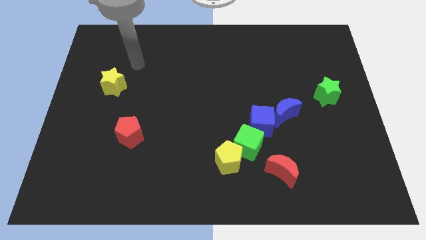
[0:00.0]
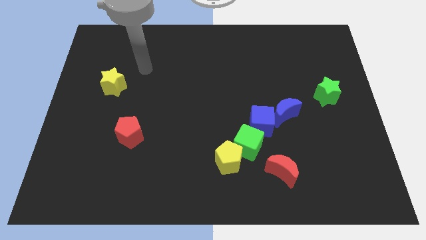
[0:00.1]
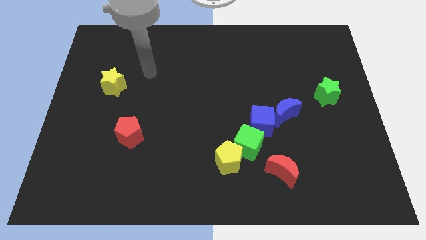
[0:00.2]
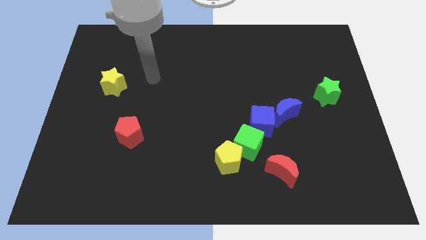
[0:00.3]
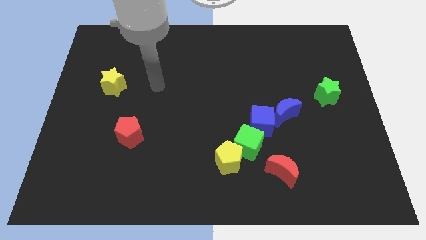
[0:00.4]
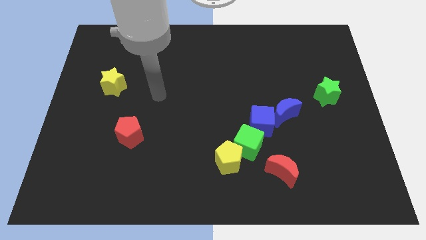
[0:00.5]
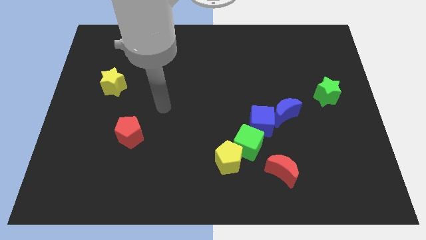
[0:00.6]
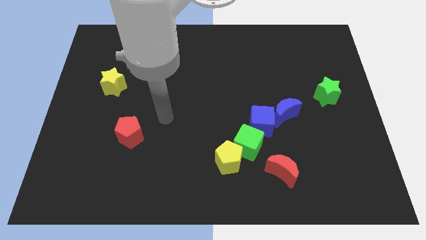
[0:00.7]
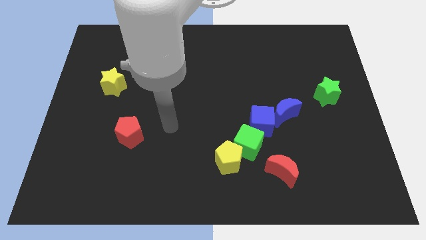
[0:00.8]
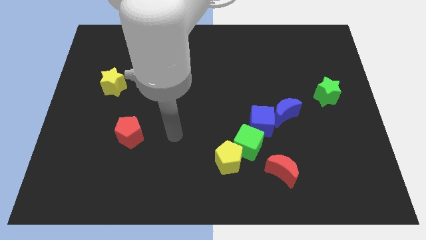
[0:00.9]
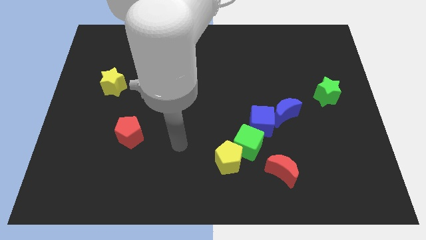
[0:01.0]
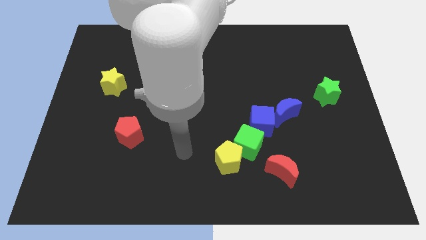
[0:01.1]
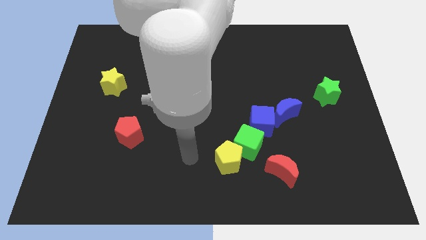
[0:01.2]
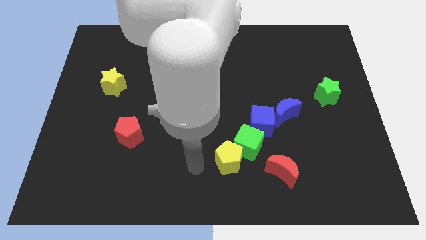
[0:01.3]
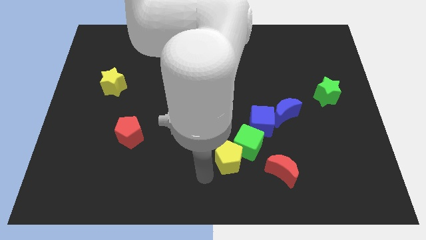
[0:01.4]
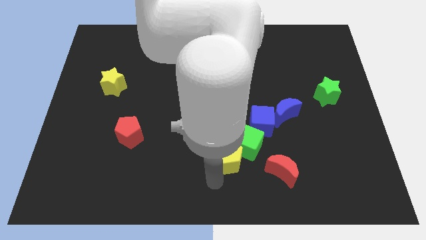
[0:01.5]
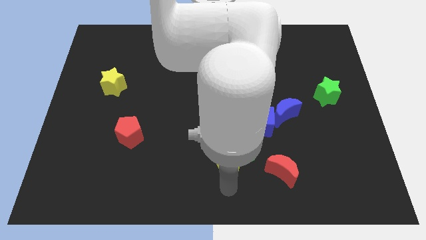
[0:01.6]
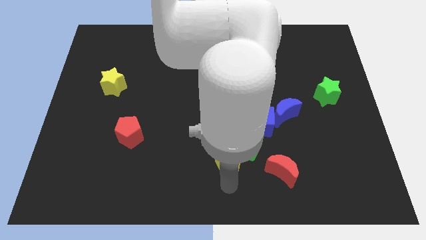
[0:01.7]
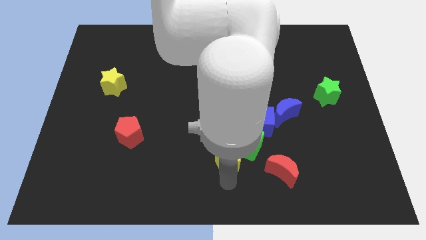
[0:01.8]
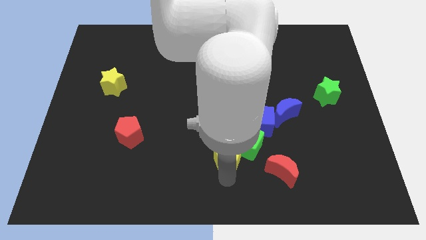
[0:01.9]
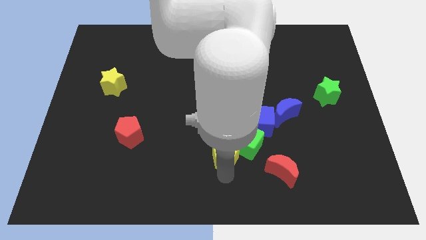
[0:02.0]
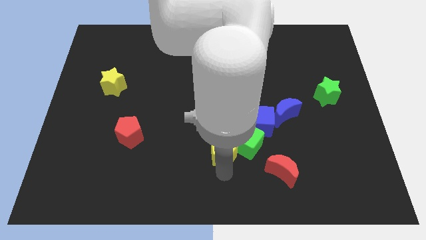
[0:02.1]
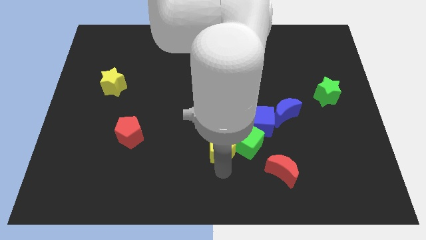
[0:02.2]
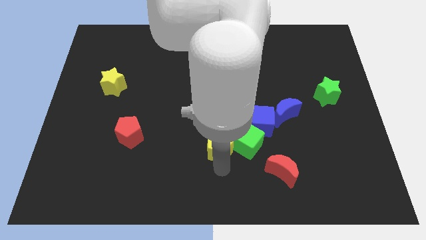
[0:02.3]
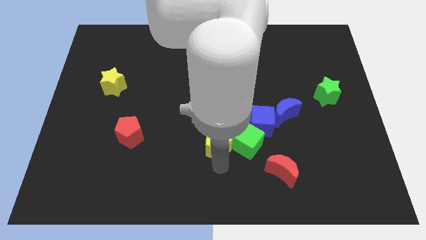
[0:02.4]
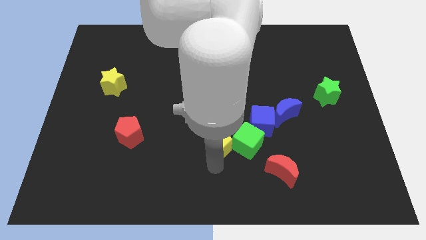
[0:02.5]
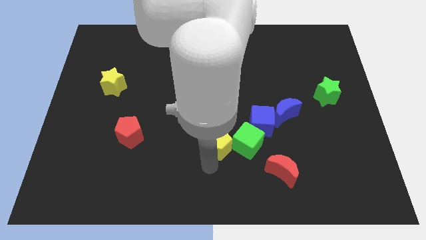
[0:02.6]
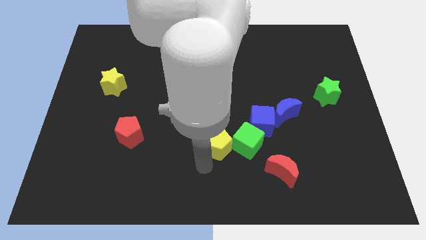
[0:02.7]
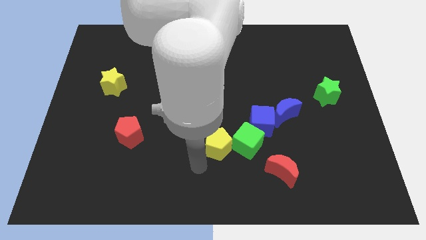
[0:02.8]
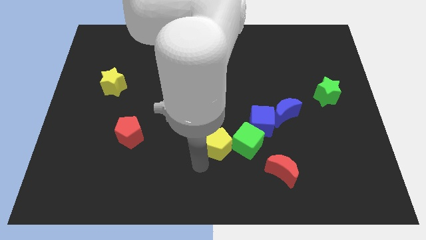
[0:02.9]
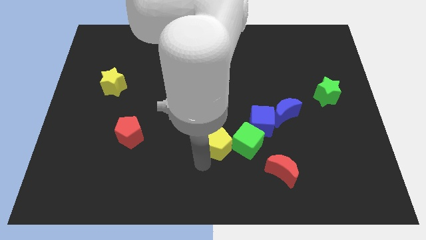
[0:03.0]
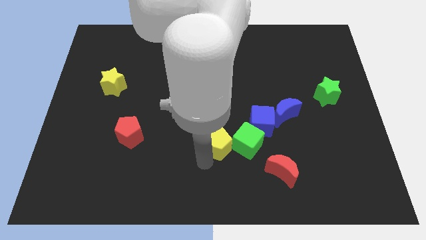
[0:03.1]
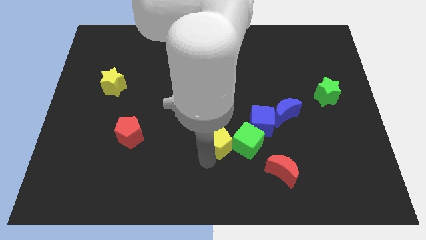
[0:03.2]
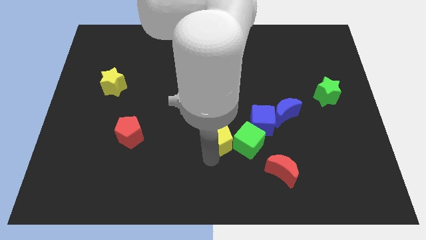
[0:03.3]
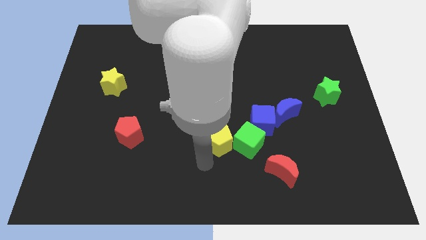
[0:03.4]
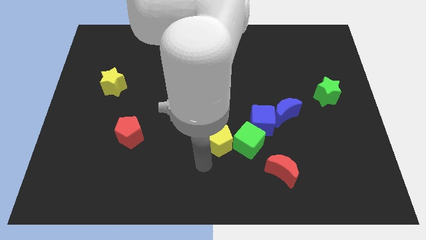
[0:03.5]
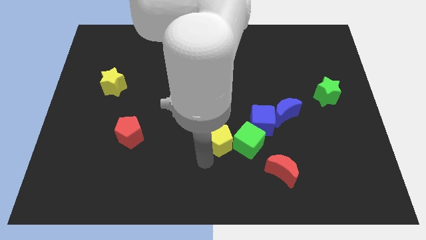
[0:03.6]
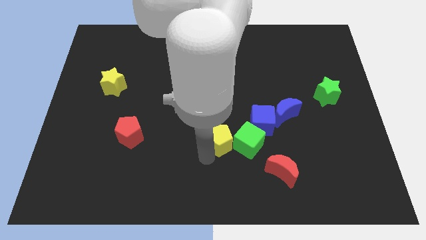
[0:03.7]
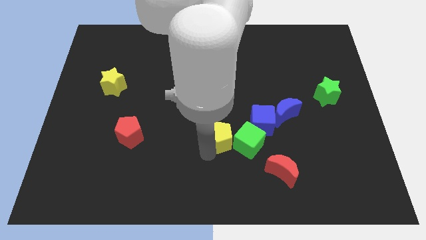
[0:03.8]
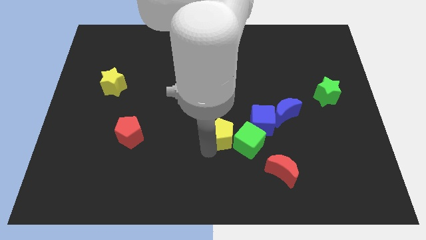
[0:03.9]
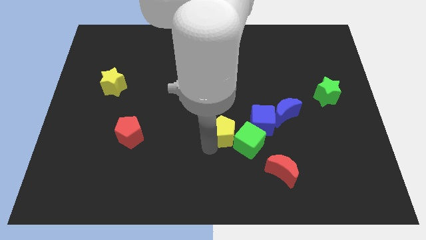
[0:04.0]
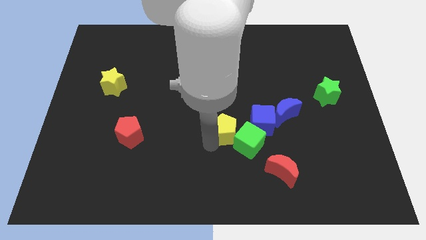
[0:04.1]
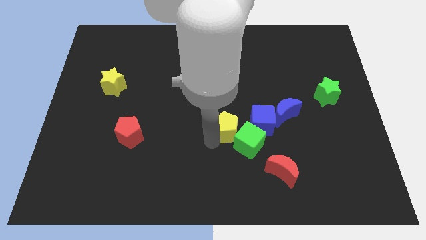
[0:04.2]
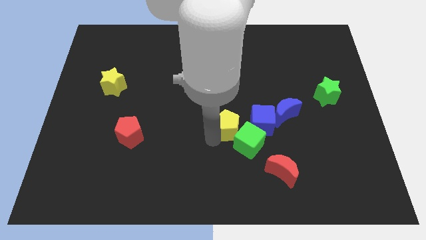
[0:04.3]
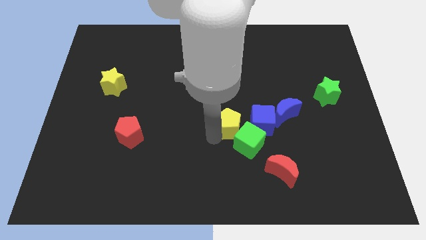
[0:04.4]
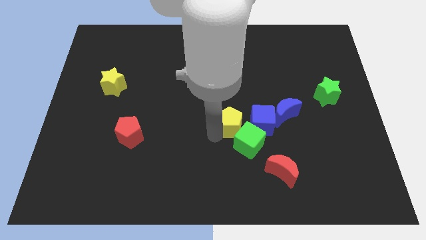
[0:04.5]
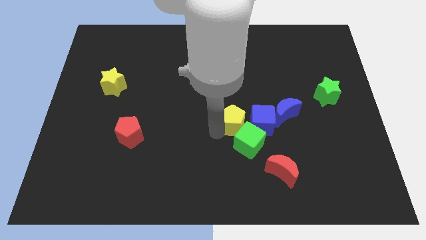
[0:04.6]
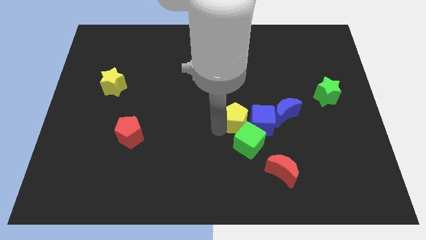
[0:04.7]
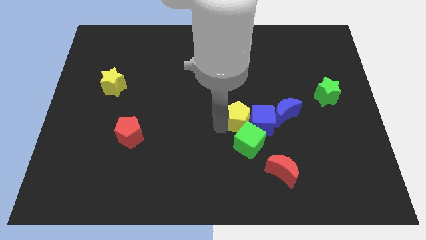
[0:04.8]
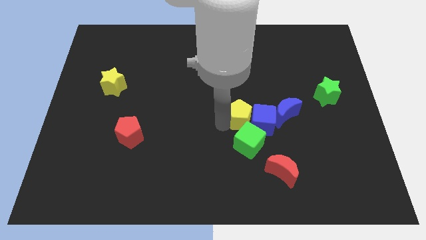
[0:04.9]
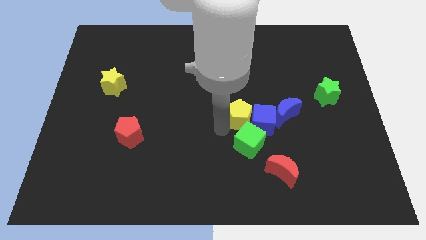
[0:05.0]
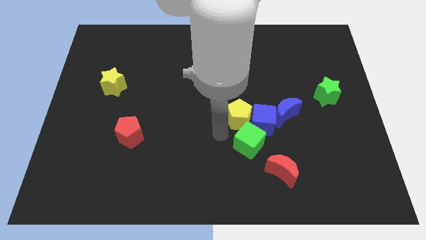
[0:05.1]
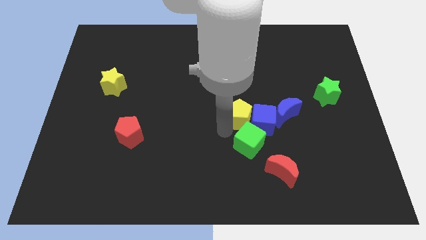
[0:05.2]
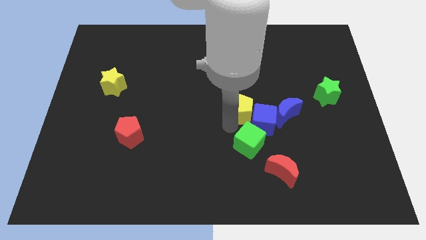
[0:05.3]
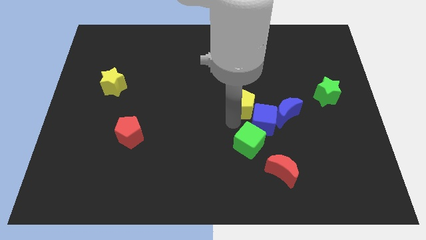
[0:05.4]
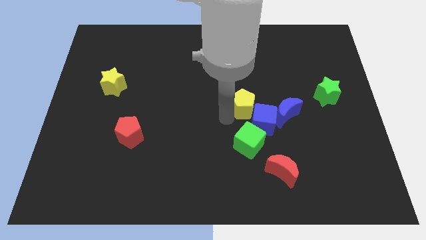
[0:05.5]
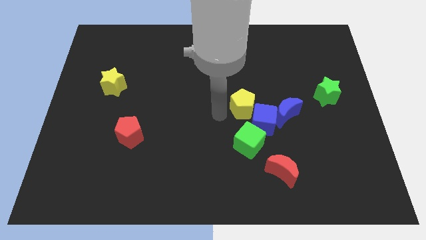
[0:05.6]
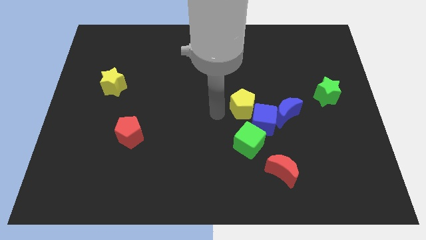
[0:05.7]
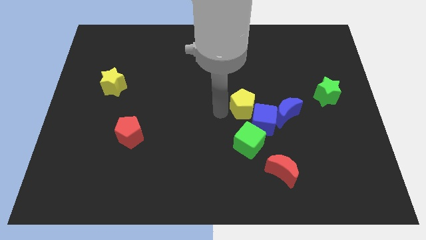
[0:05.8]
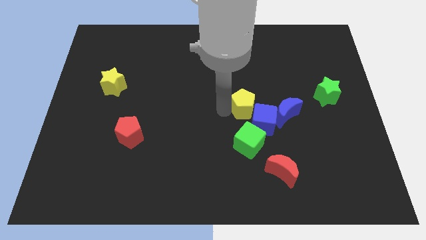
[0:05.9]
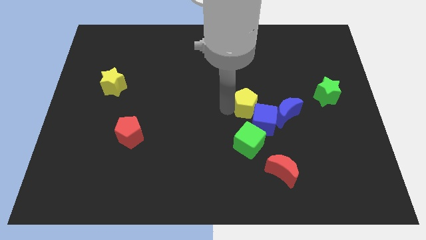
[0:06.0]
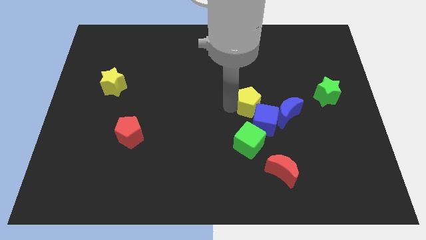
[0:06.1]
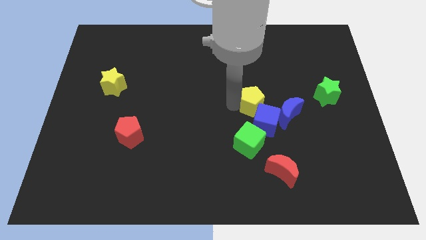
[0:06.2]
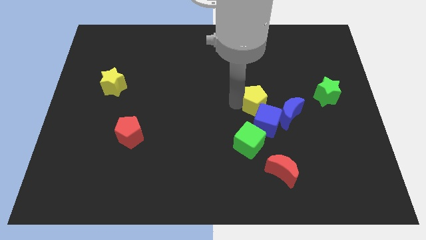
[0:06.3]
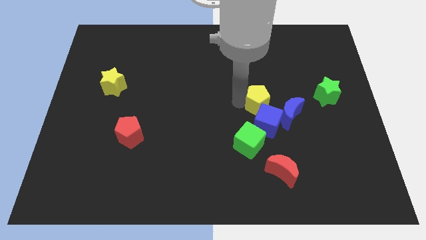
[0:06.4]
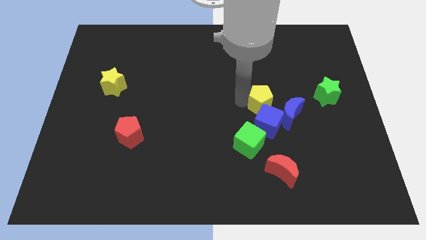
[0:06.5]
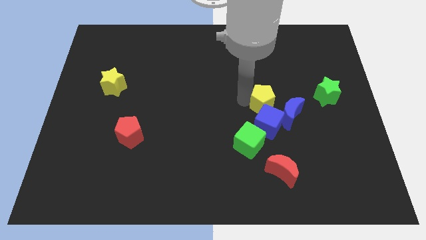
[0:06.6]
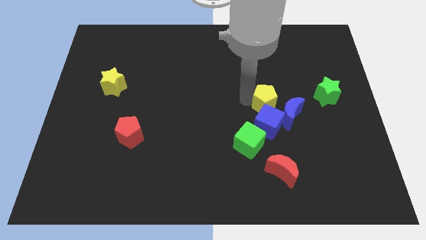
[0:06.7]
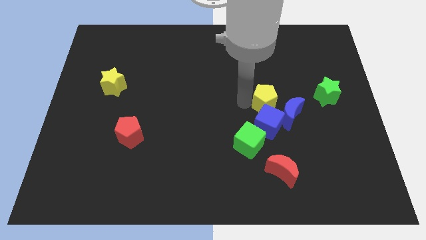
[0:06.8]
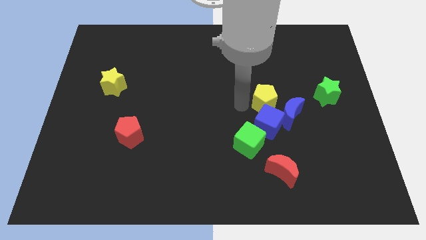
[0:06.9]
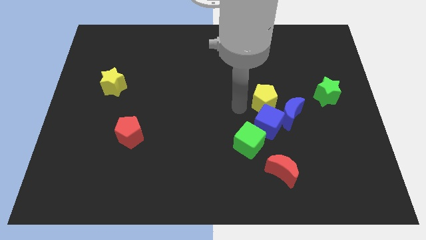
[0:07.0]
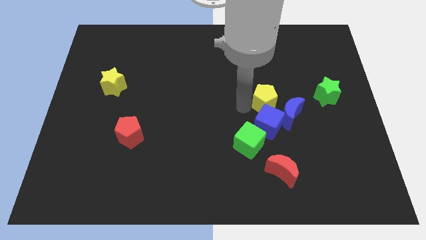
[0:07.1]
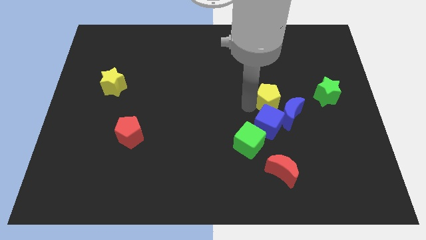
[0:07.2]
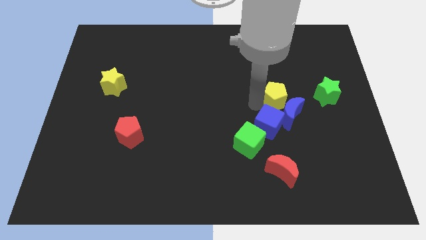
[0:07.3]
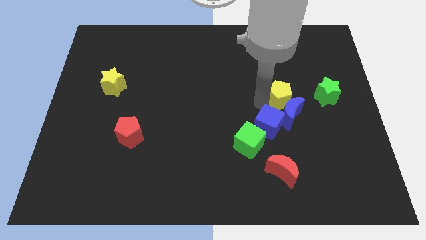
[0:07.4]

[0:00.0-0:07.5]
move the yellow pentagon upwards and to the right diagonally

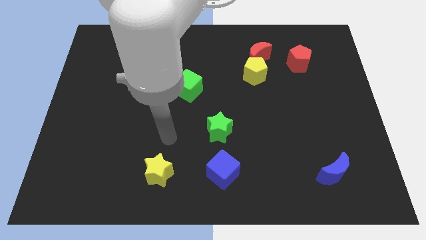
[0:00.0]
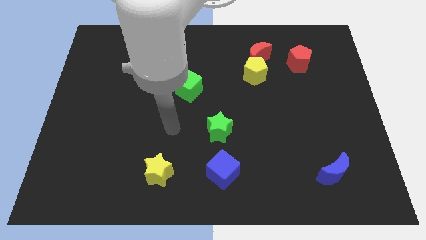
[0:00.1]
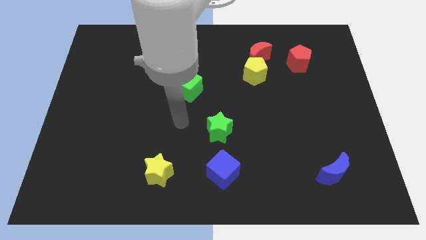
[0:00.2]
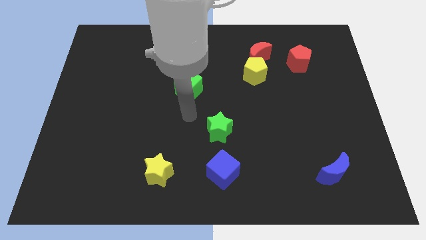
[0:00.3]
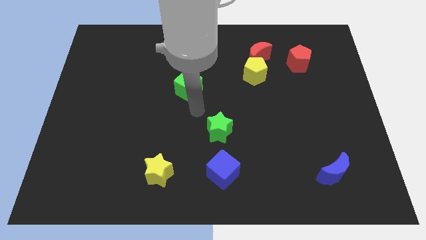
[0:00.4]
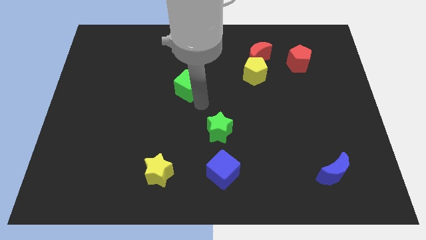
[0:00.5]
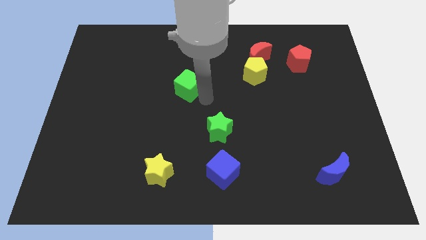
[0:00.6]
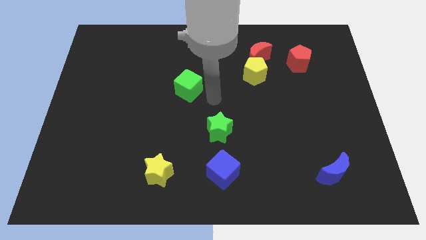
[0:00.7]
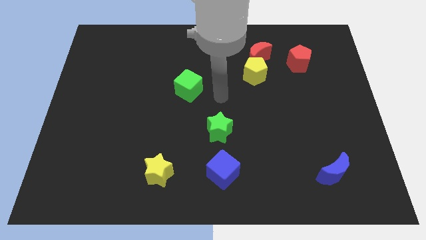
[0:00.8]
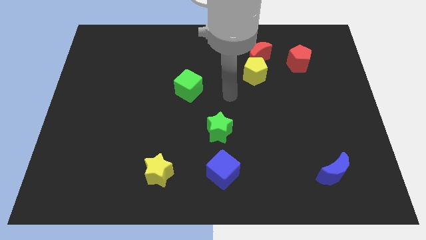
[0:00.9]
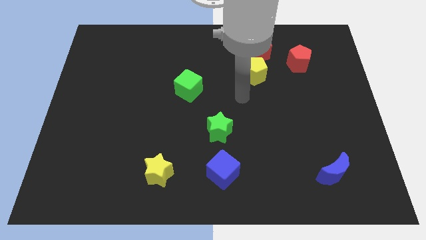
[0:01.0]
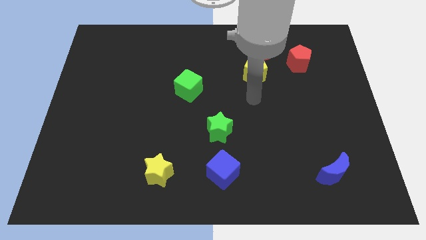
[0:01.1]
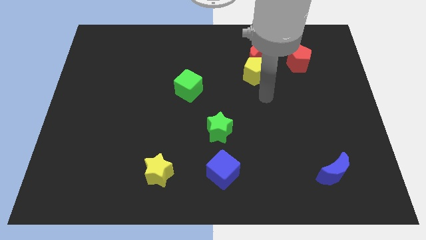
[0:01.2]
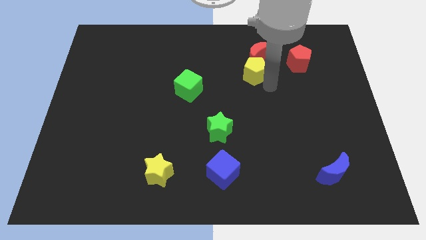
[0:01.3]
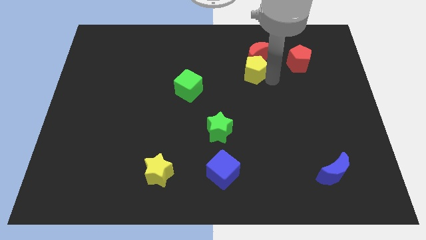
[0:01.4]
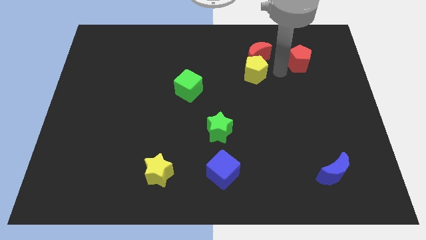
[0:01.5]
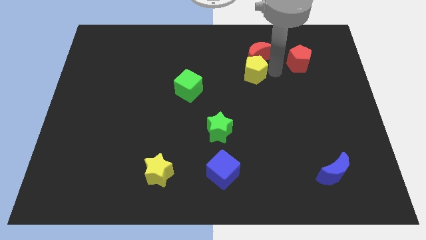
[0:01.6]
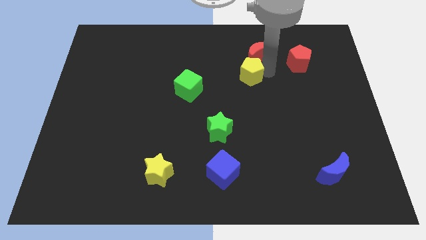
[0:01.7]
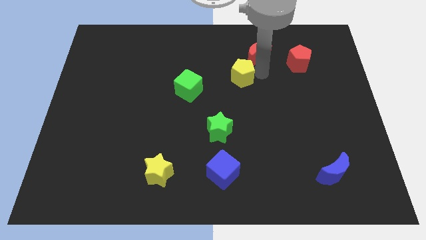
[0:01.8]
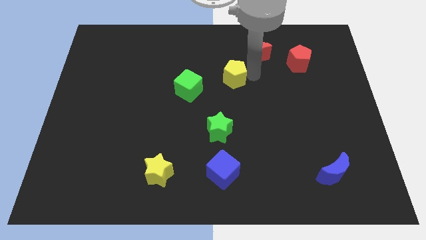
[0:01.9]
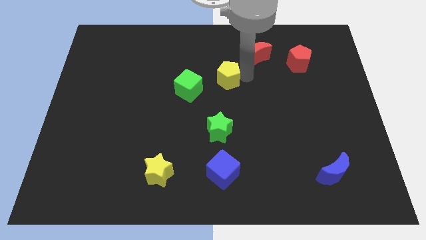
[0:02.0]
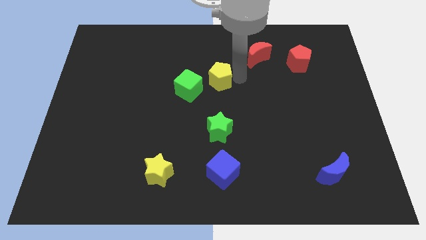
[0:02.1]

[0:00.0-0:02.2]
slide the yellow pentagon left a little bit
